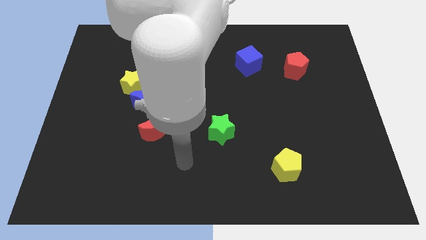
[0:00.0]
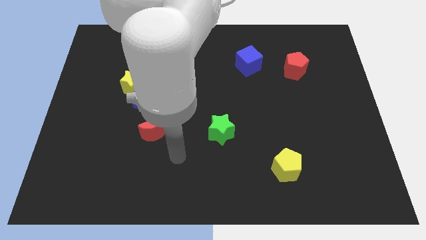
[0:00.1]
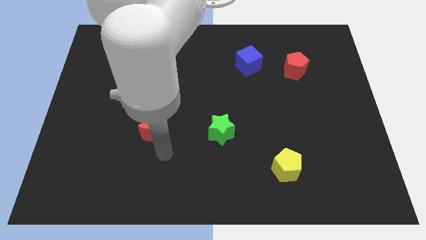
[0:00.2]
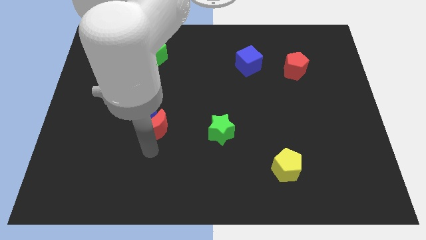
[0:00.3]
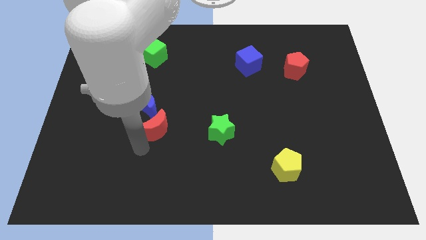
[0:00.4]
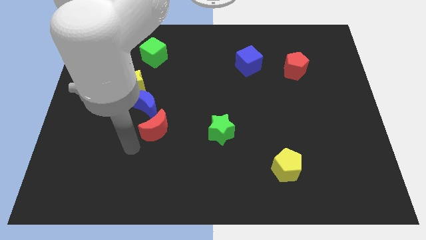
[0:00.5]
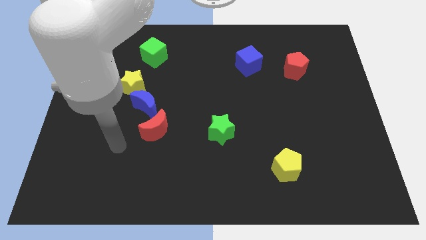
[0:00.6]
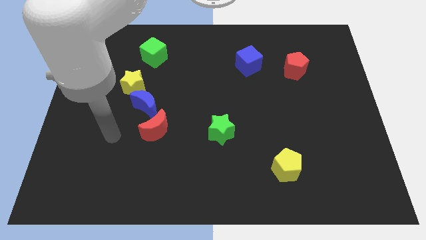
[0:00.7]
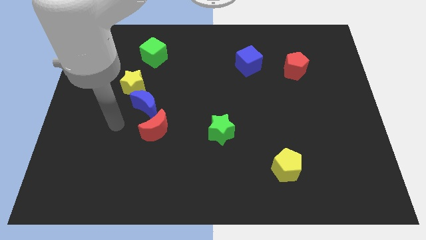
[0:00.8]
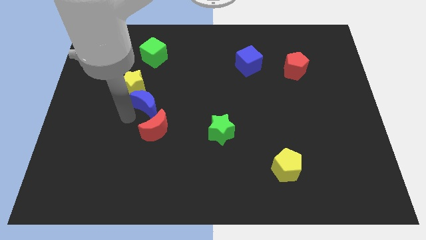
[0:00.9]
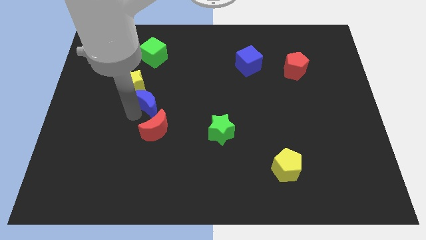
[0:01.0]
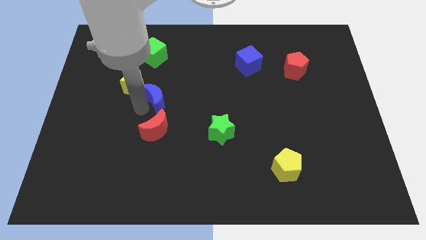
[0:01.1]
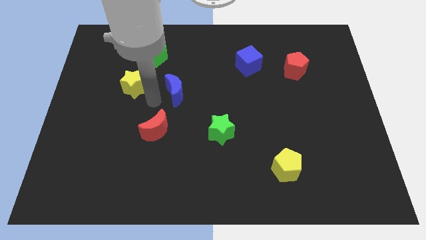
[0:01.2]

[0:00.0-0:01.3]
move the yellow star away from the blue moon

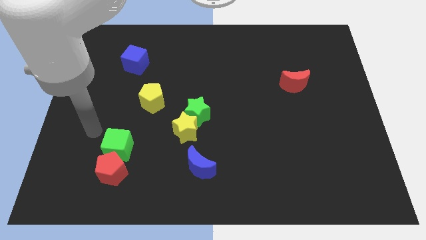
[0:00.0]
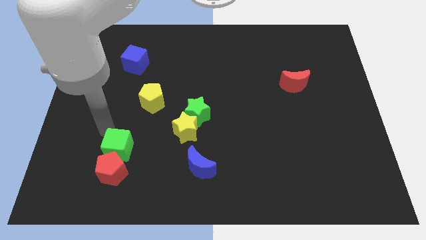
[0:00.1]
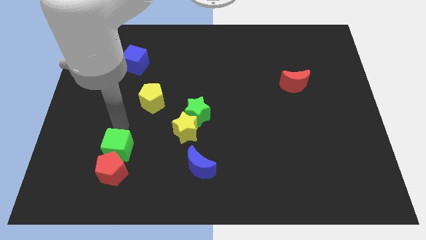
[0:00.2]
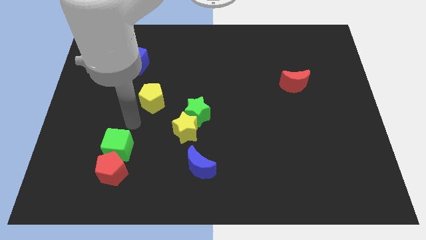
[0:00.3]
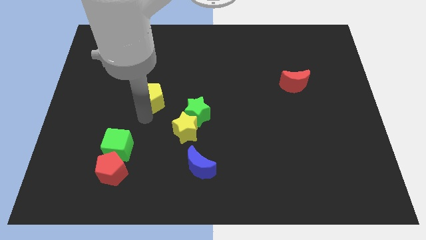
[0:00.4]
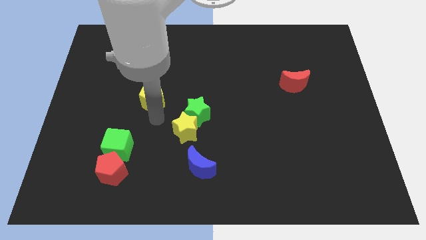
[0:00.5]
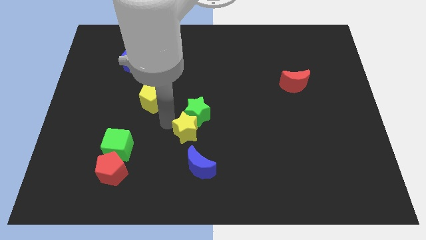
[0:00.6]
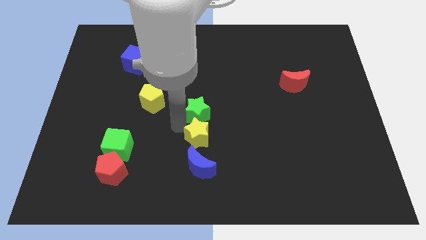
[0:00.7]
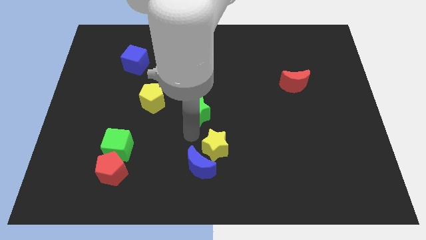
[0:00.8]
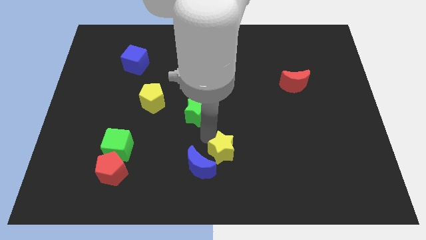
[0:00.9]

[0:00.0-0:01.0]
separate the green star from the yellow star

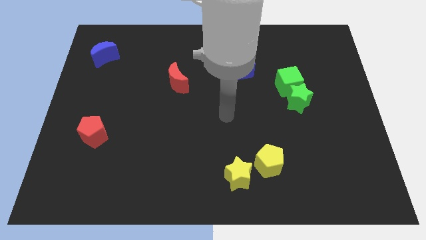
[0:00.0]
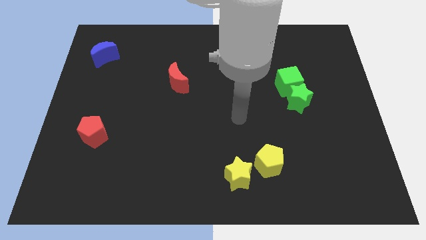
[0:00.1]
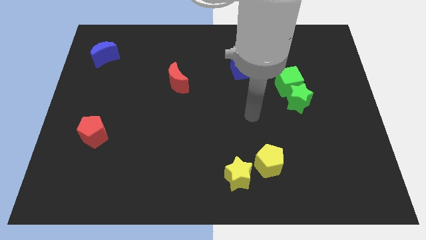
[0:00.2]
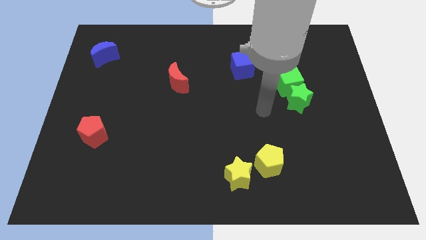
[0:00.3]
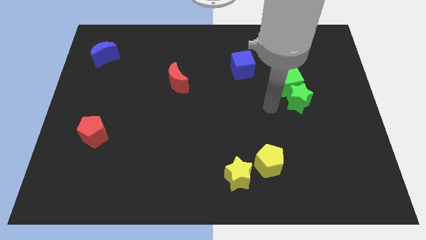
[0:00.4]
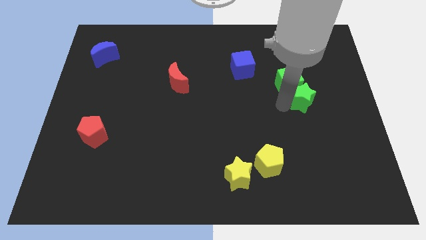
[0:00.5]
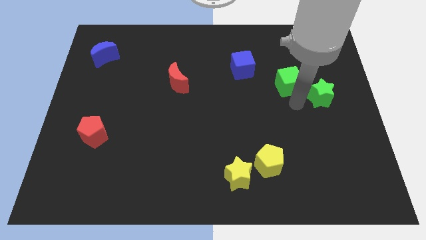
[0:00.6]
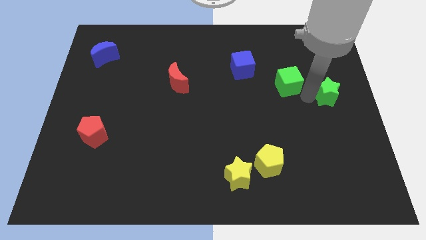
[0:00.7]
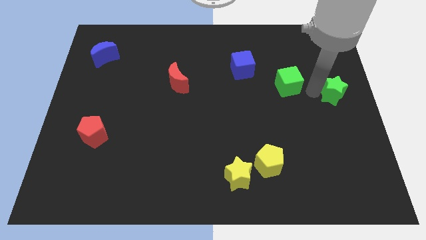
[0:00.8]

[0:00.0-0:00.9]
move the green cube away from the green star

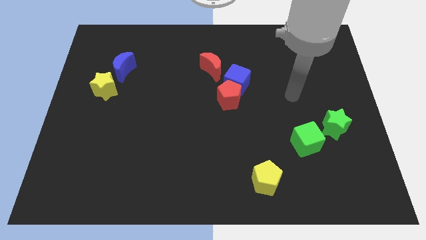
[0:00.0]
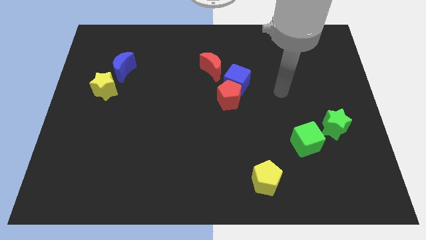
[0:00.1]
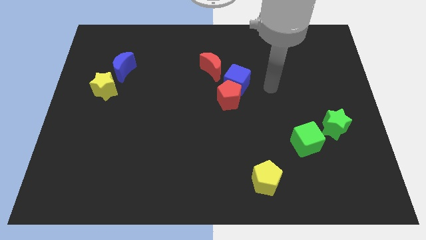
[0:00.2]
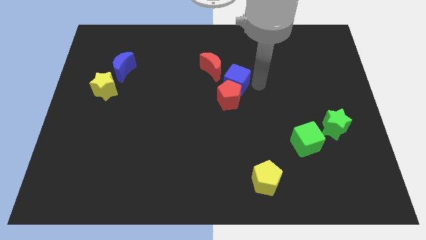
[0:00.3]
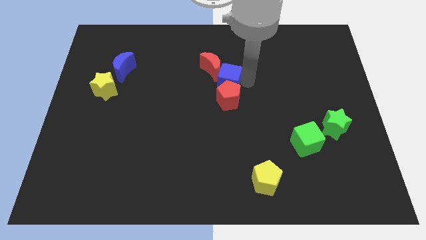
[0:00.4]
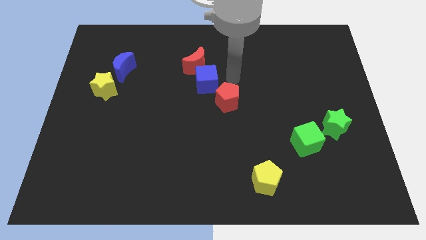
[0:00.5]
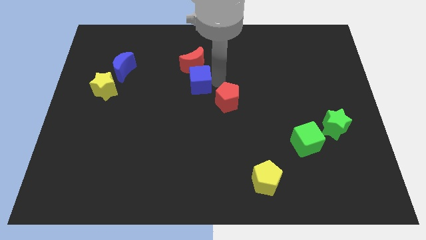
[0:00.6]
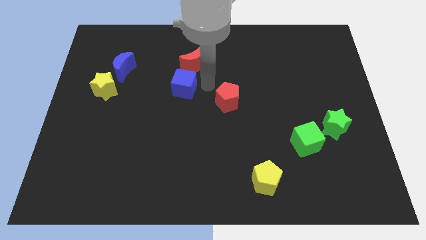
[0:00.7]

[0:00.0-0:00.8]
pull the red pentagon apart from the blue cube

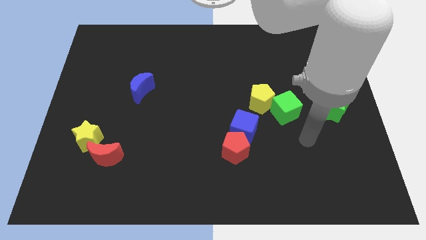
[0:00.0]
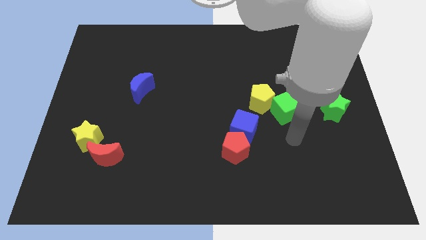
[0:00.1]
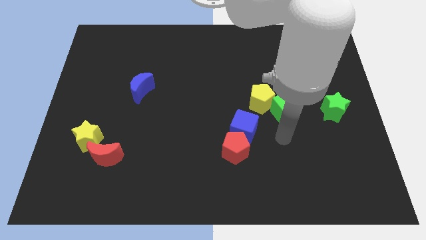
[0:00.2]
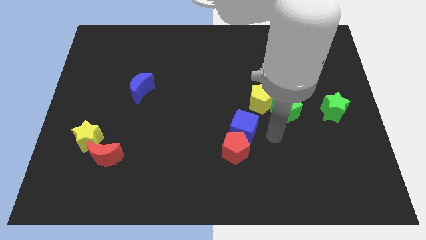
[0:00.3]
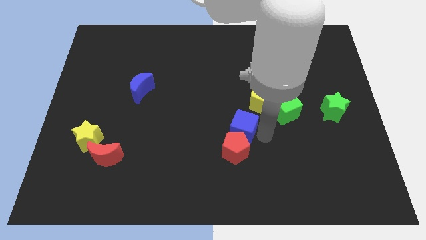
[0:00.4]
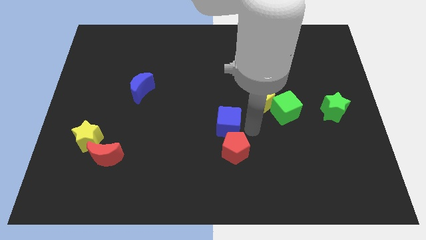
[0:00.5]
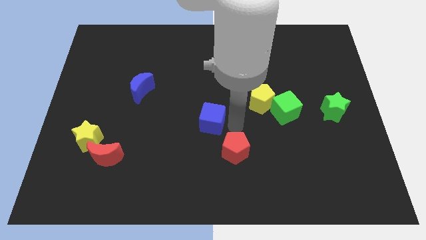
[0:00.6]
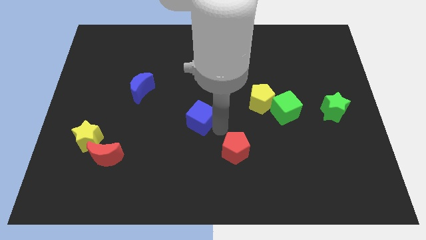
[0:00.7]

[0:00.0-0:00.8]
move the red pentagon away from the blue cube

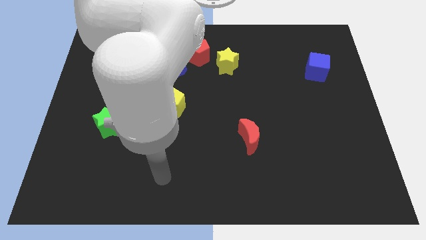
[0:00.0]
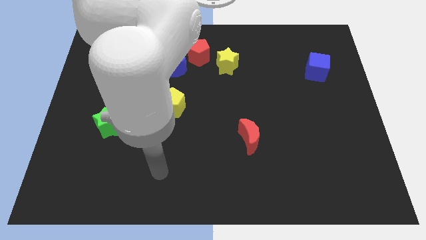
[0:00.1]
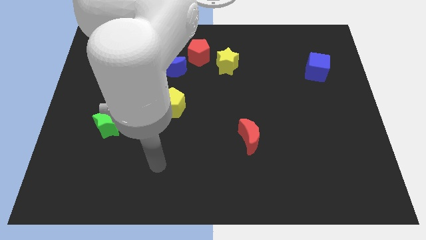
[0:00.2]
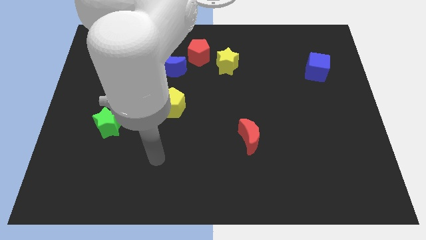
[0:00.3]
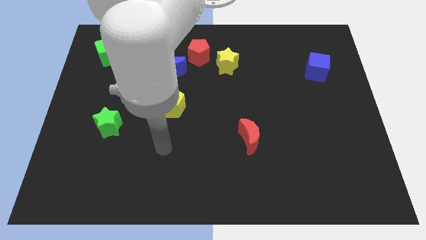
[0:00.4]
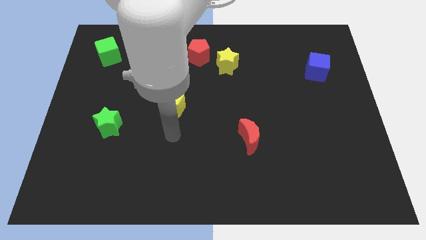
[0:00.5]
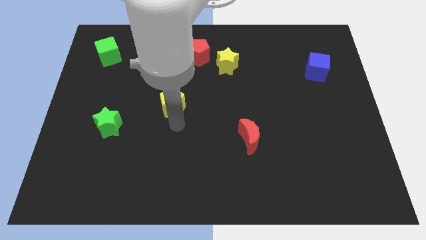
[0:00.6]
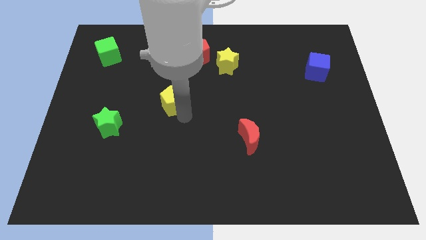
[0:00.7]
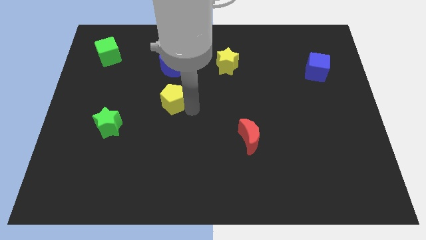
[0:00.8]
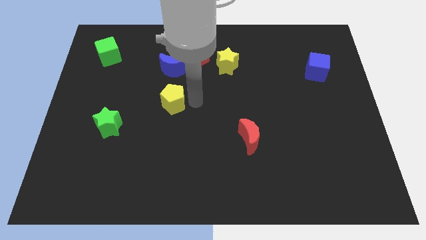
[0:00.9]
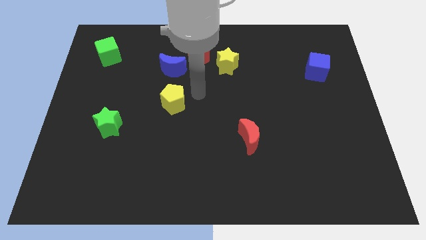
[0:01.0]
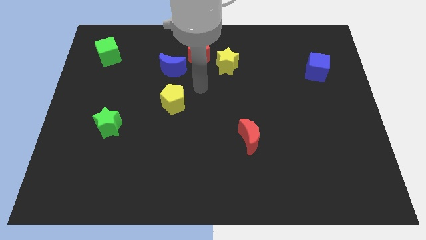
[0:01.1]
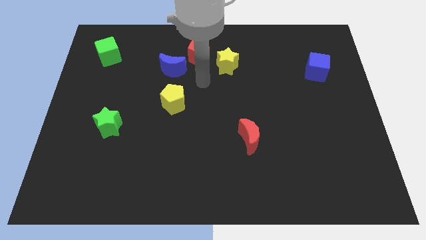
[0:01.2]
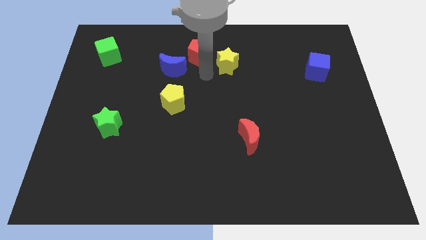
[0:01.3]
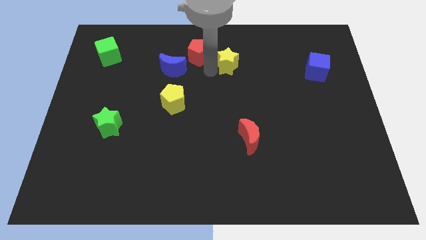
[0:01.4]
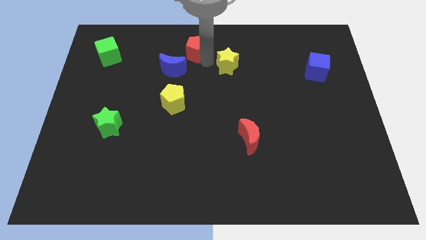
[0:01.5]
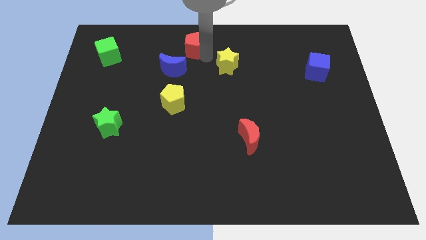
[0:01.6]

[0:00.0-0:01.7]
move the yellow star away from the red pentagon

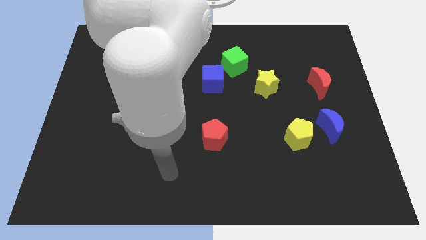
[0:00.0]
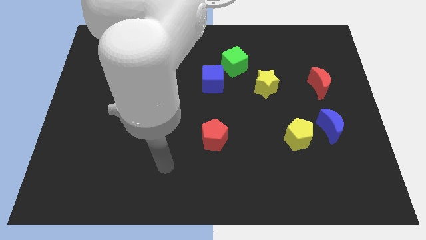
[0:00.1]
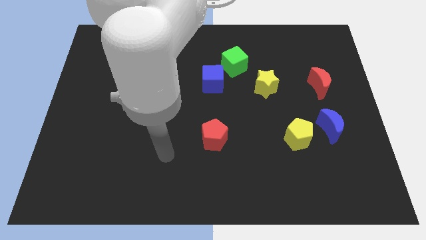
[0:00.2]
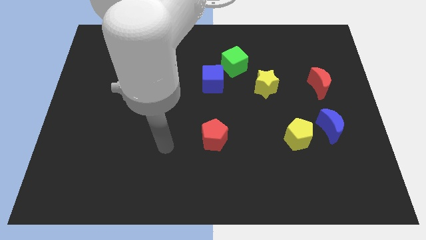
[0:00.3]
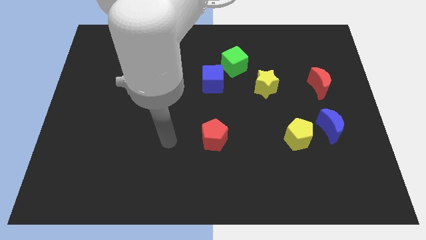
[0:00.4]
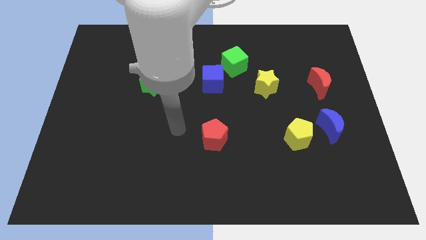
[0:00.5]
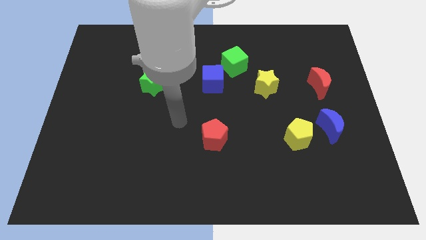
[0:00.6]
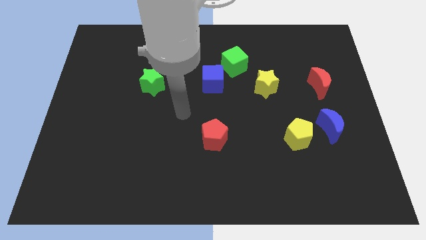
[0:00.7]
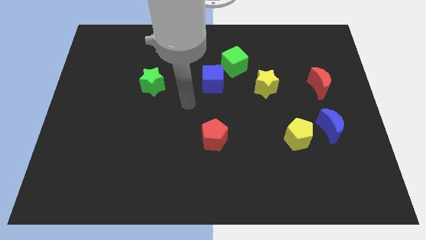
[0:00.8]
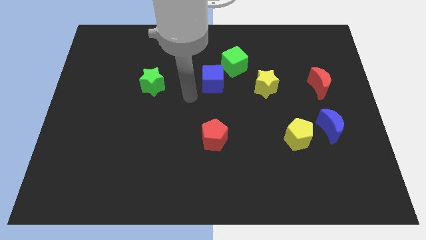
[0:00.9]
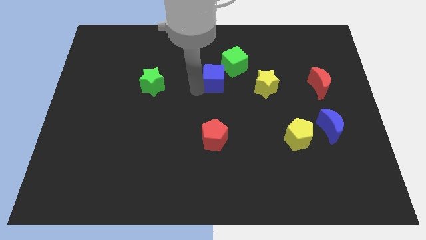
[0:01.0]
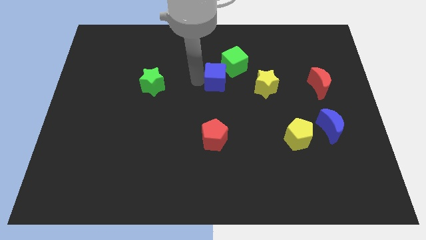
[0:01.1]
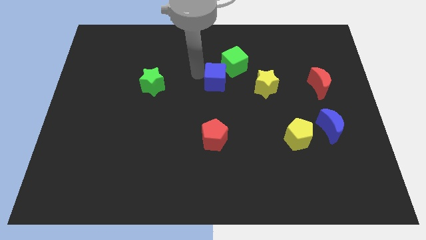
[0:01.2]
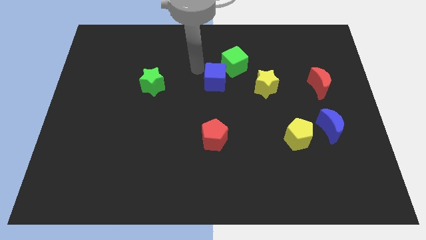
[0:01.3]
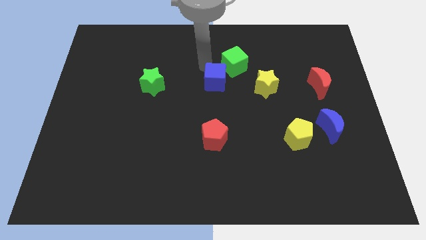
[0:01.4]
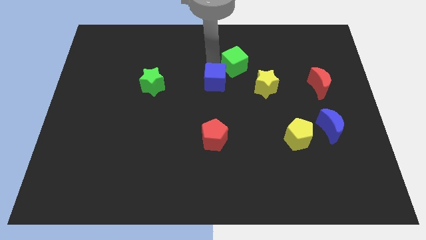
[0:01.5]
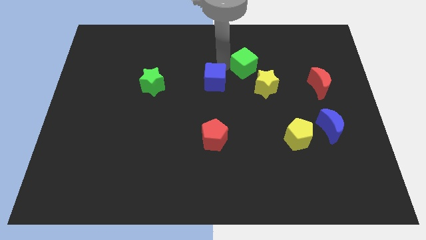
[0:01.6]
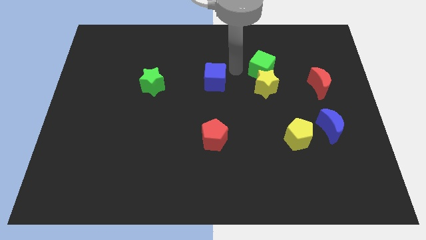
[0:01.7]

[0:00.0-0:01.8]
pull the blue cube apart from the green cube

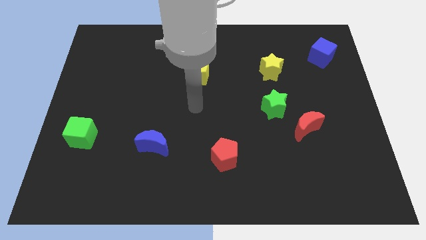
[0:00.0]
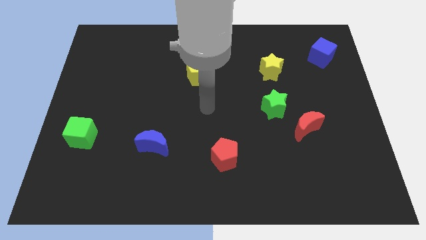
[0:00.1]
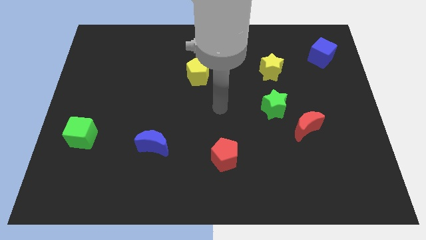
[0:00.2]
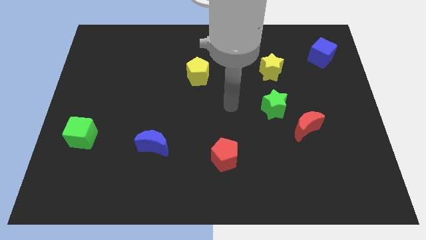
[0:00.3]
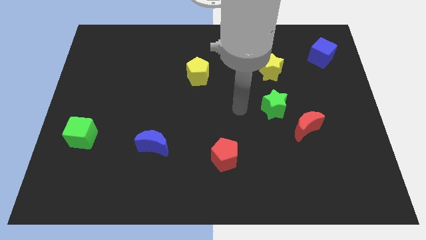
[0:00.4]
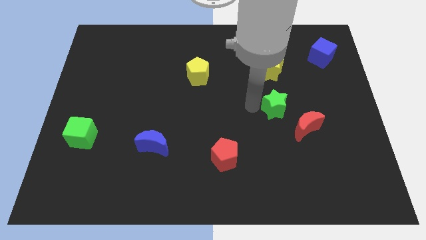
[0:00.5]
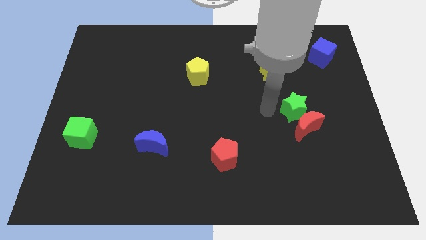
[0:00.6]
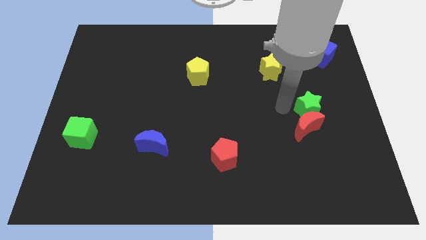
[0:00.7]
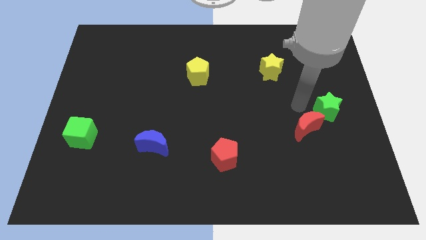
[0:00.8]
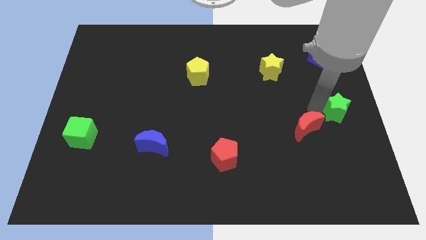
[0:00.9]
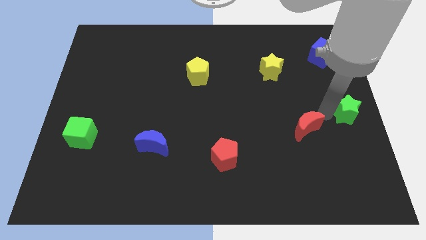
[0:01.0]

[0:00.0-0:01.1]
pull the red moon apart from the green star
